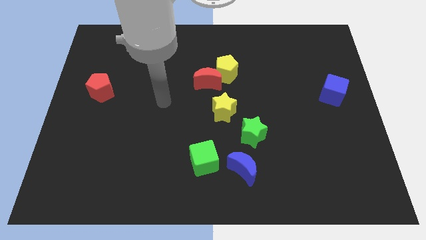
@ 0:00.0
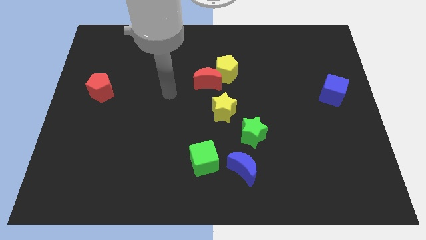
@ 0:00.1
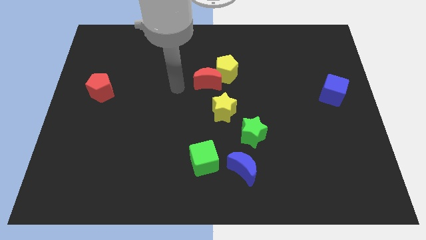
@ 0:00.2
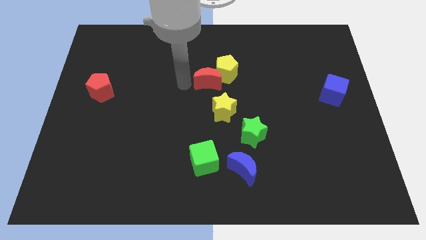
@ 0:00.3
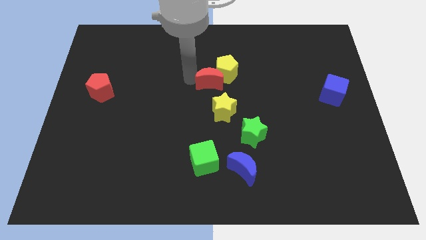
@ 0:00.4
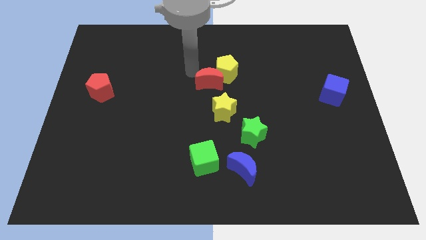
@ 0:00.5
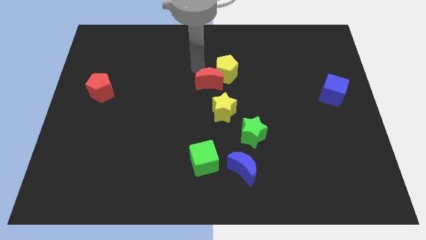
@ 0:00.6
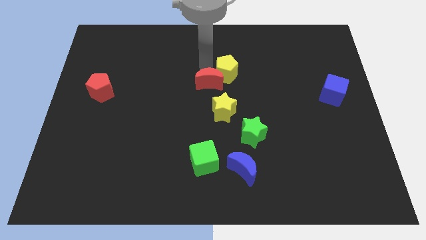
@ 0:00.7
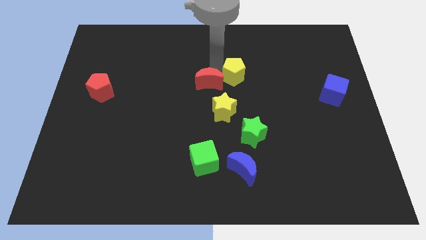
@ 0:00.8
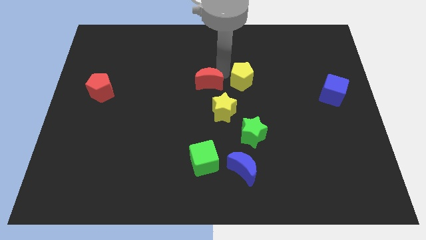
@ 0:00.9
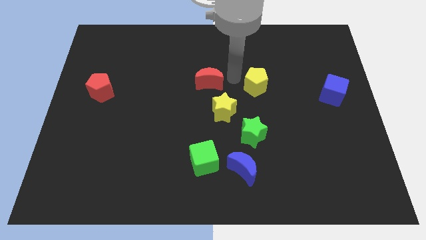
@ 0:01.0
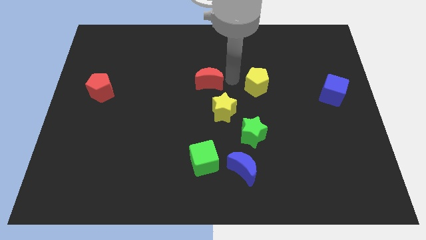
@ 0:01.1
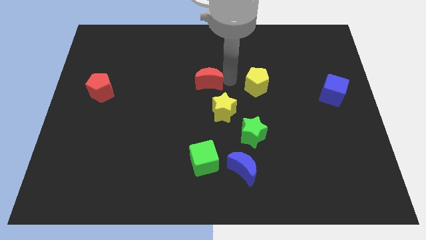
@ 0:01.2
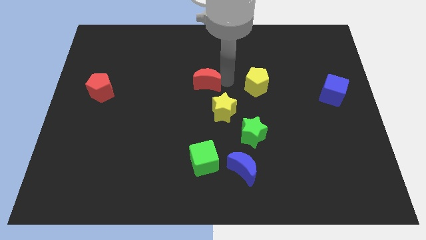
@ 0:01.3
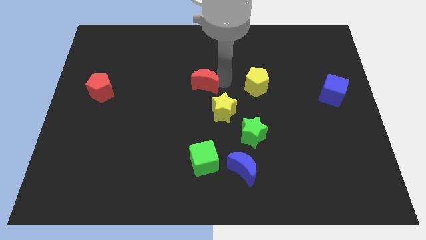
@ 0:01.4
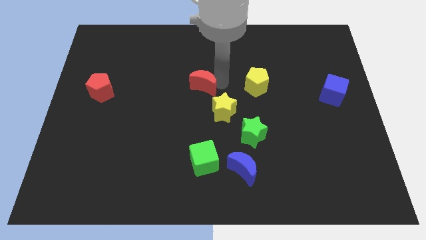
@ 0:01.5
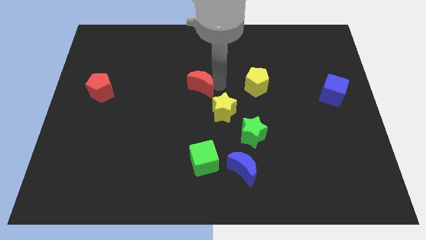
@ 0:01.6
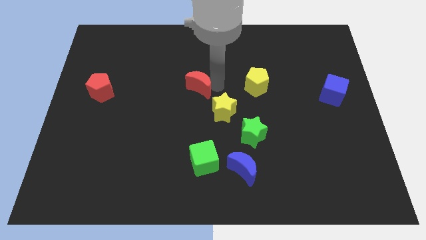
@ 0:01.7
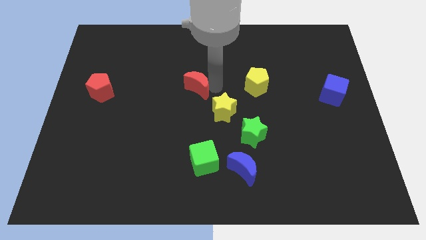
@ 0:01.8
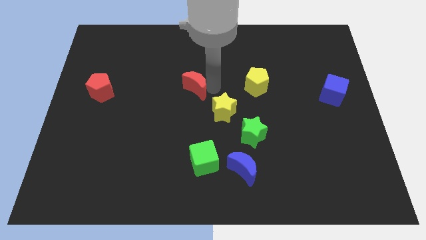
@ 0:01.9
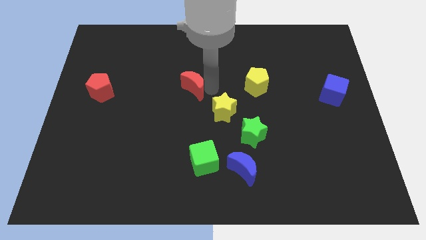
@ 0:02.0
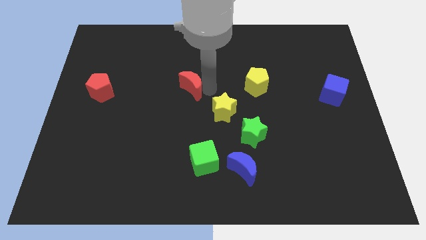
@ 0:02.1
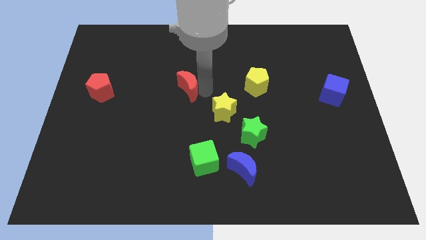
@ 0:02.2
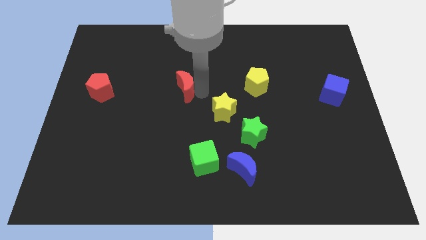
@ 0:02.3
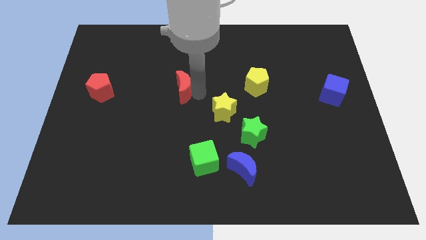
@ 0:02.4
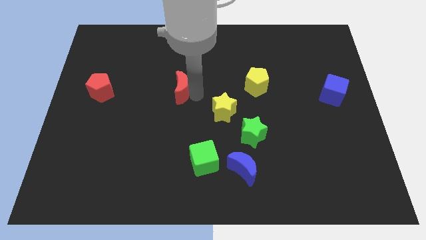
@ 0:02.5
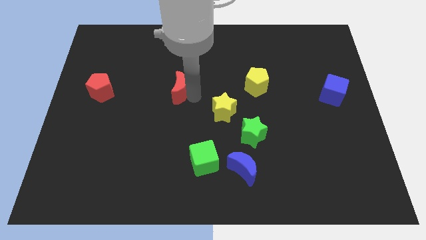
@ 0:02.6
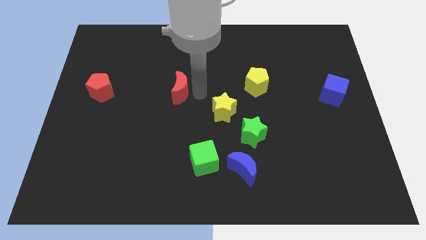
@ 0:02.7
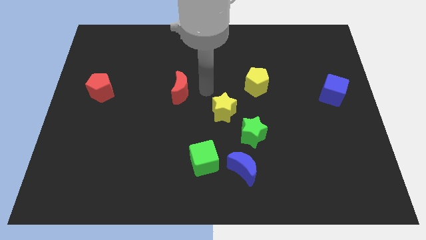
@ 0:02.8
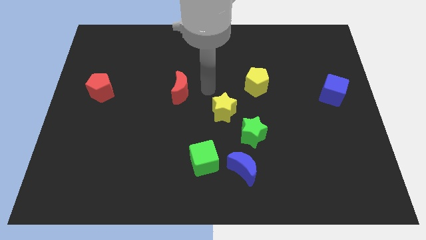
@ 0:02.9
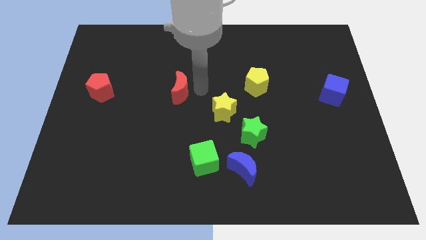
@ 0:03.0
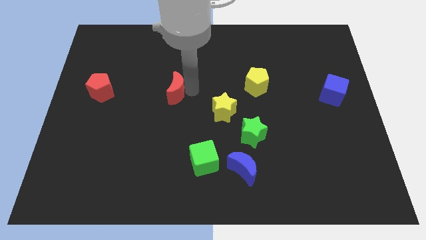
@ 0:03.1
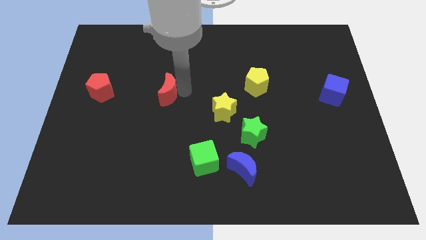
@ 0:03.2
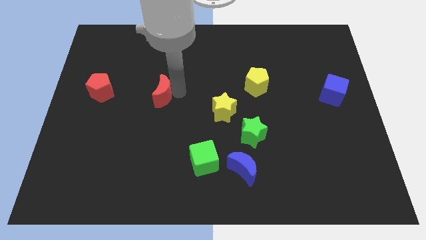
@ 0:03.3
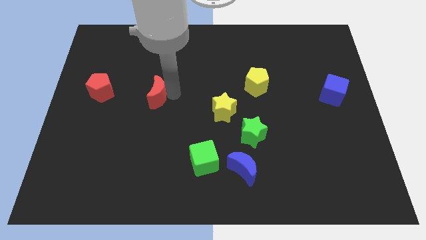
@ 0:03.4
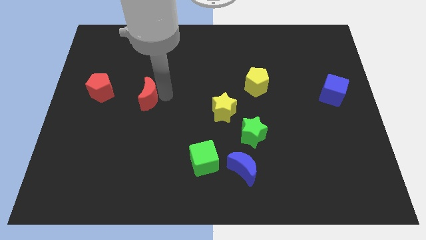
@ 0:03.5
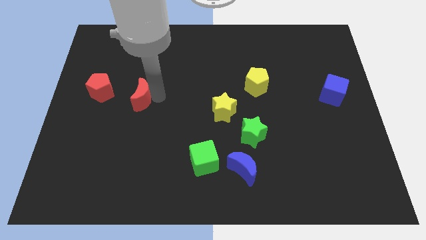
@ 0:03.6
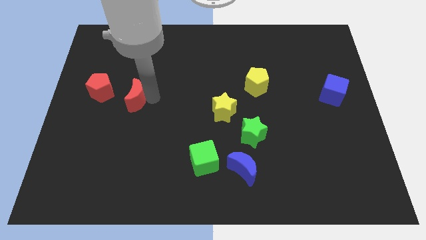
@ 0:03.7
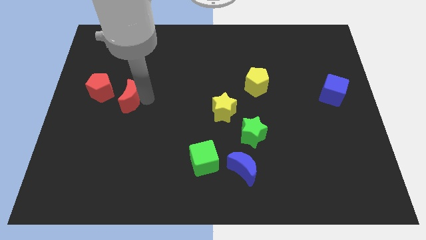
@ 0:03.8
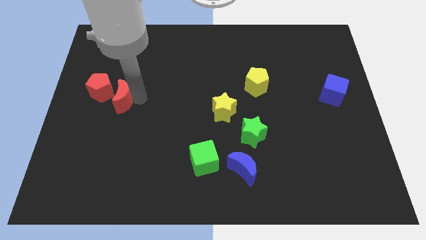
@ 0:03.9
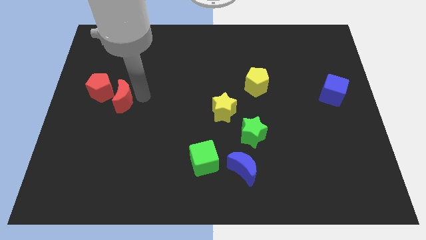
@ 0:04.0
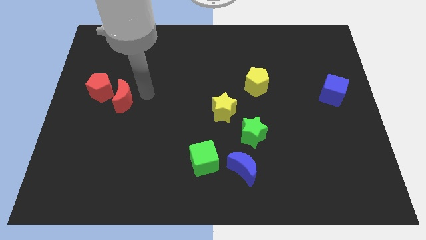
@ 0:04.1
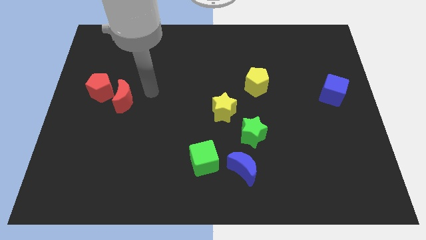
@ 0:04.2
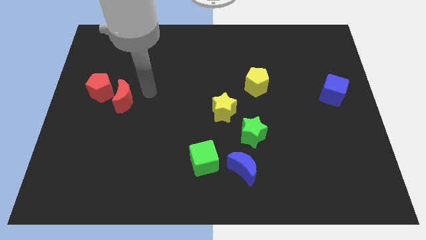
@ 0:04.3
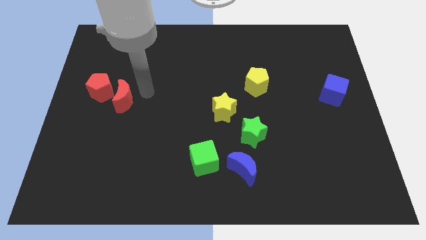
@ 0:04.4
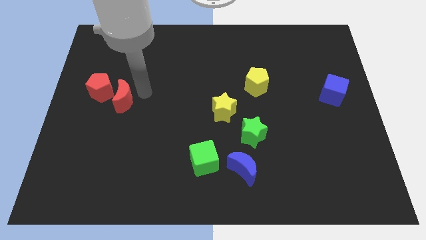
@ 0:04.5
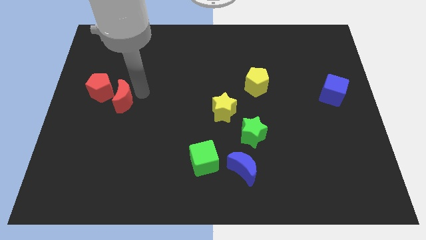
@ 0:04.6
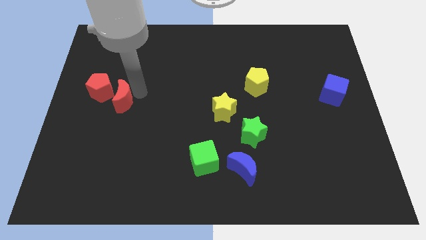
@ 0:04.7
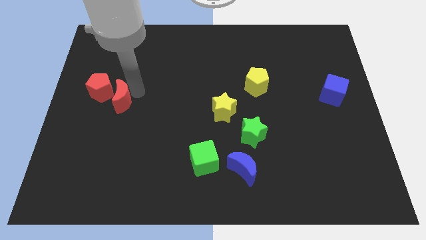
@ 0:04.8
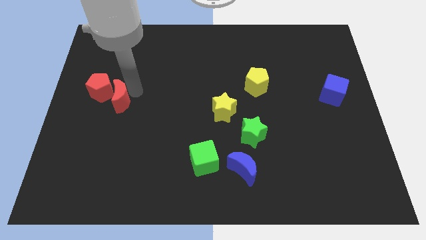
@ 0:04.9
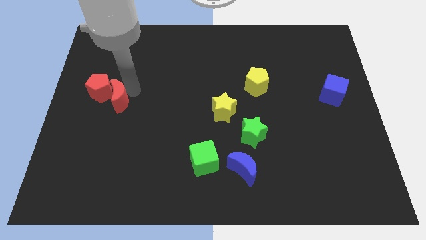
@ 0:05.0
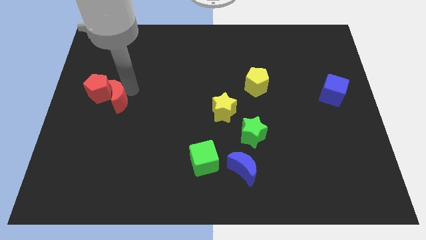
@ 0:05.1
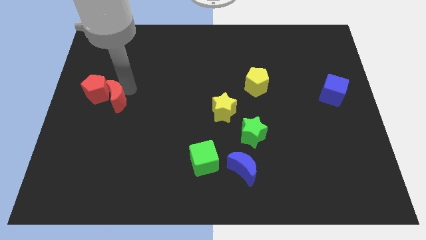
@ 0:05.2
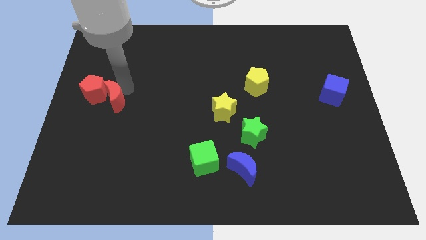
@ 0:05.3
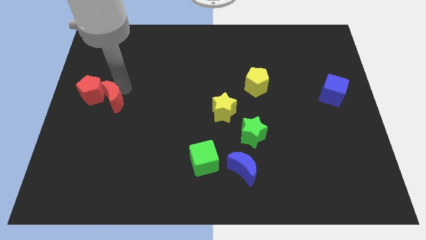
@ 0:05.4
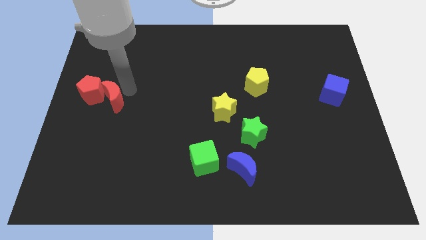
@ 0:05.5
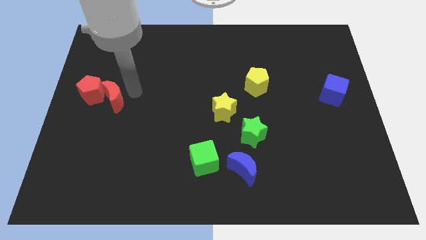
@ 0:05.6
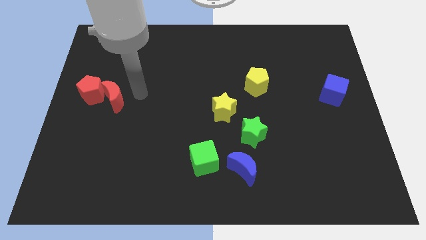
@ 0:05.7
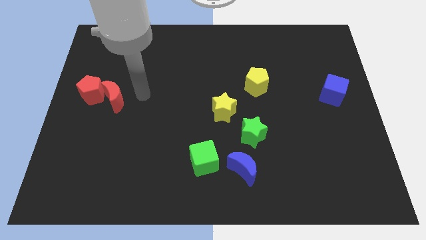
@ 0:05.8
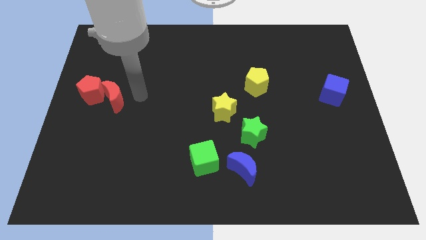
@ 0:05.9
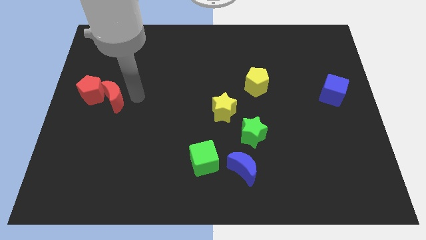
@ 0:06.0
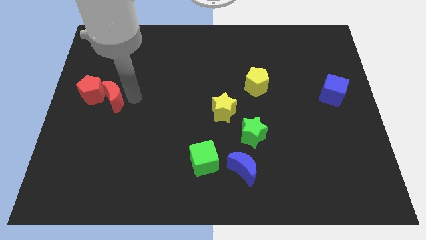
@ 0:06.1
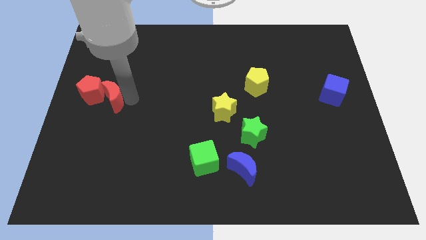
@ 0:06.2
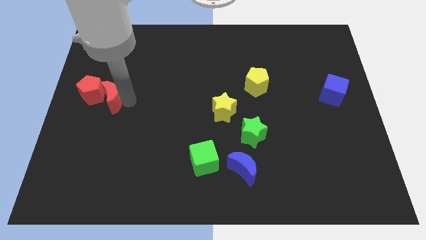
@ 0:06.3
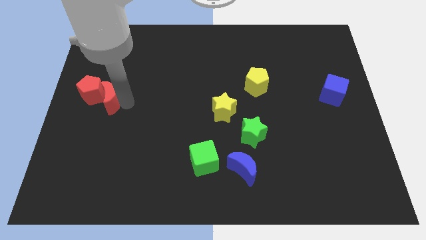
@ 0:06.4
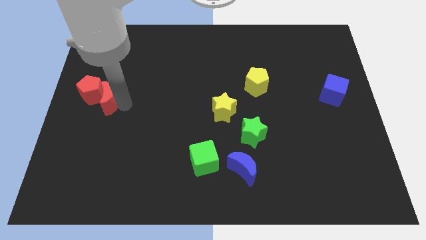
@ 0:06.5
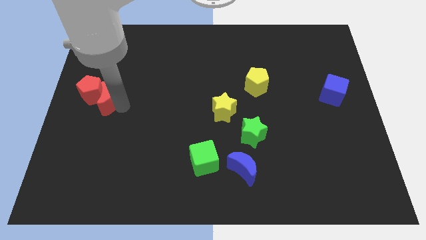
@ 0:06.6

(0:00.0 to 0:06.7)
slide the red moon to the left side of the board

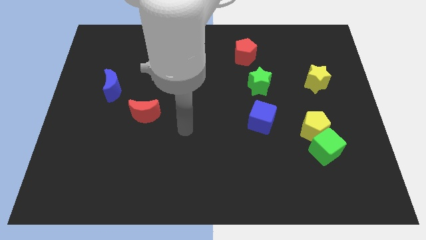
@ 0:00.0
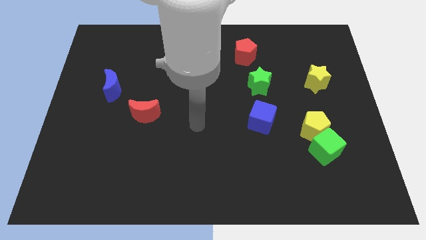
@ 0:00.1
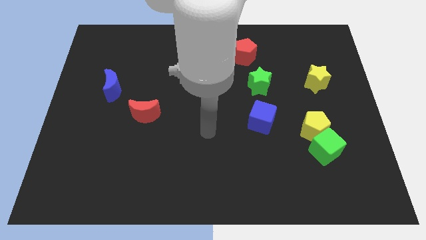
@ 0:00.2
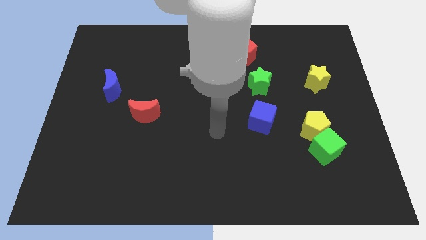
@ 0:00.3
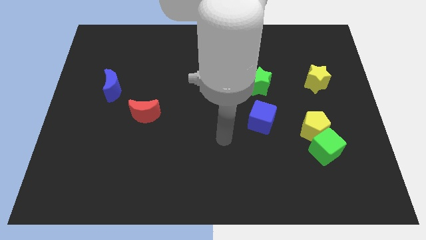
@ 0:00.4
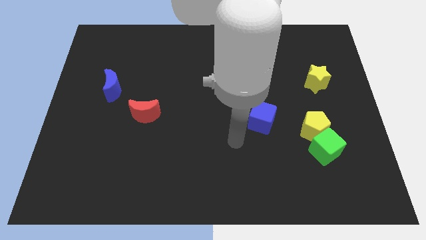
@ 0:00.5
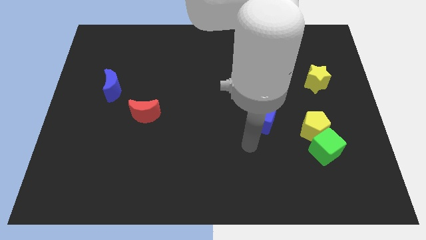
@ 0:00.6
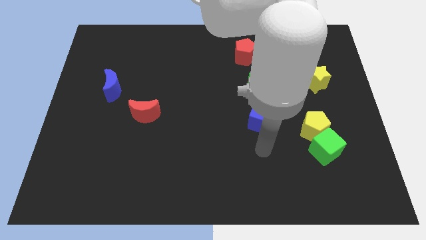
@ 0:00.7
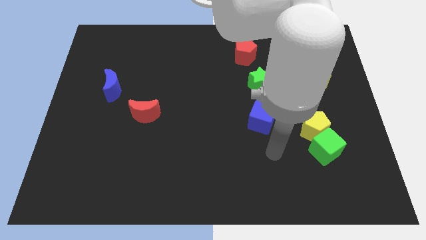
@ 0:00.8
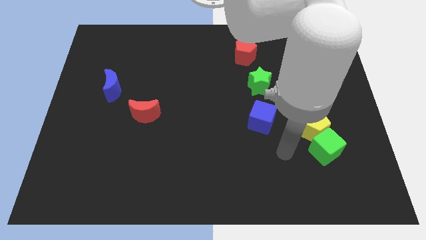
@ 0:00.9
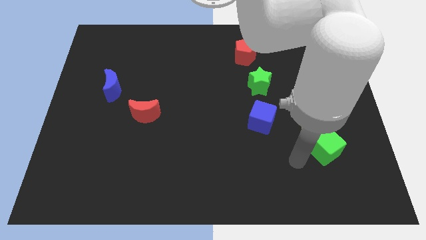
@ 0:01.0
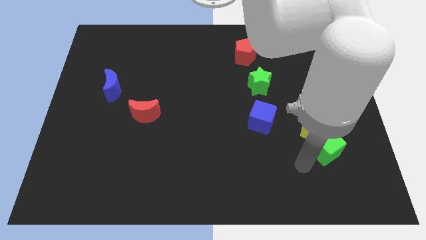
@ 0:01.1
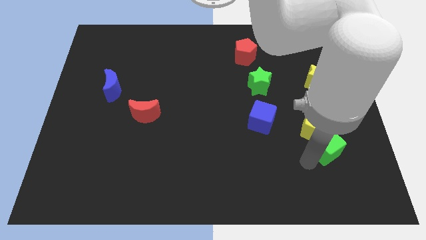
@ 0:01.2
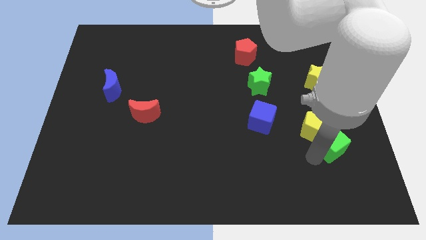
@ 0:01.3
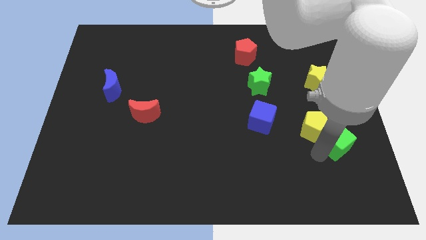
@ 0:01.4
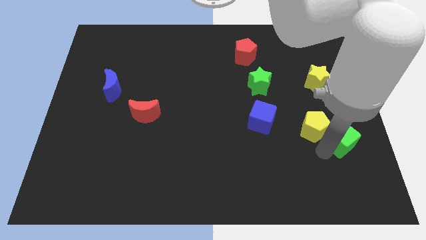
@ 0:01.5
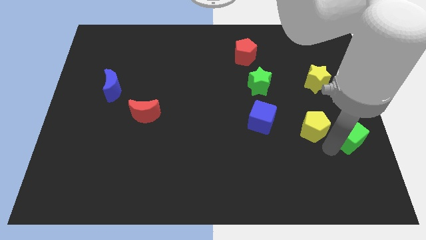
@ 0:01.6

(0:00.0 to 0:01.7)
slide the green cube to the center right
